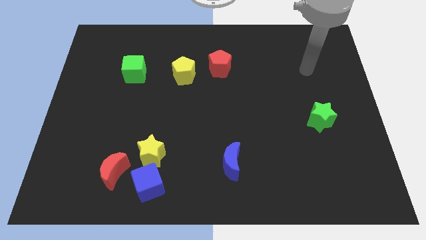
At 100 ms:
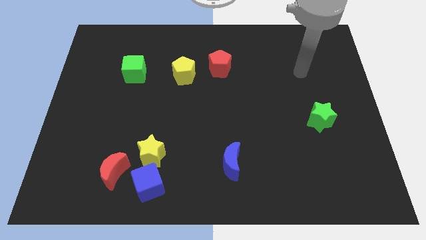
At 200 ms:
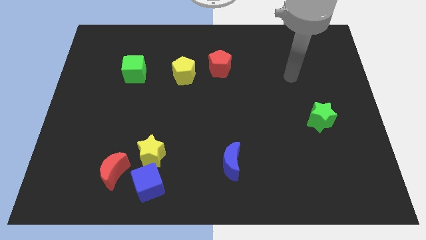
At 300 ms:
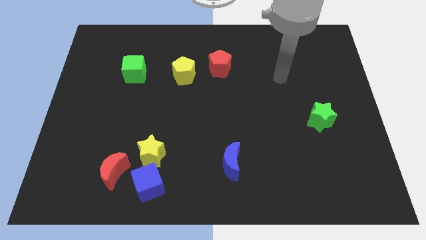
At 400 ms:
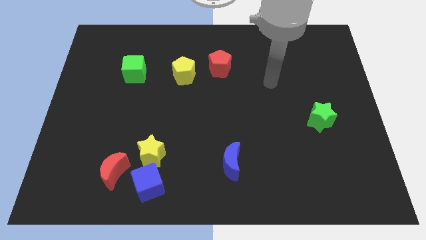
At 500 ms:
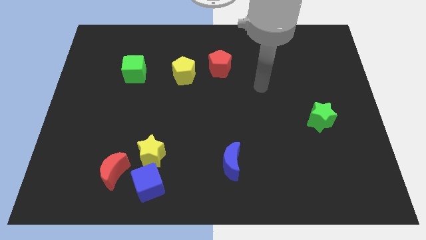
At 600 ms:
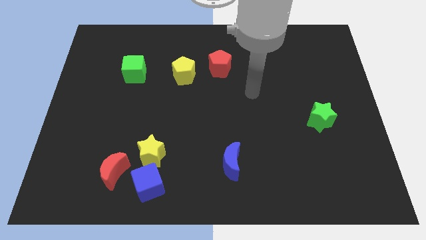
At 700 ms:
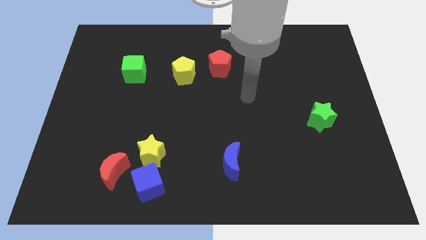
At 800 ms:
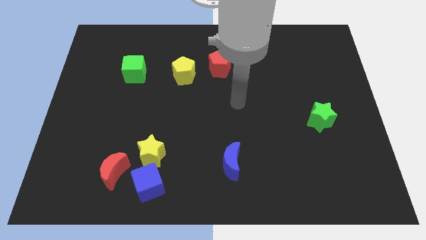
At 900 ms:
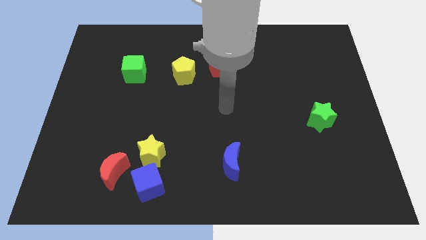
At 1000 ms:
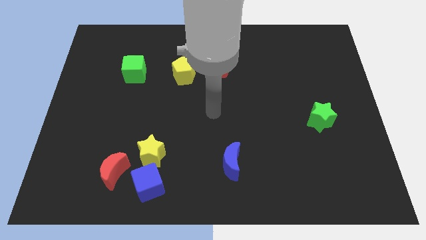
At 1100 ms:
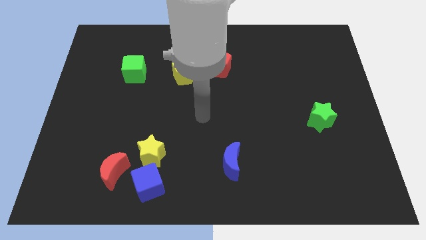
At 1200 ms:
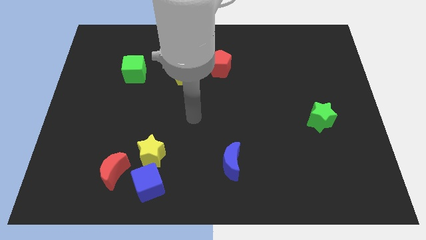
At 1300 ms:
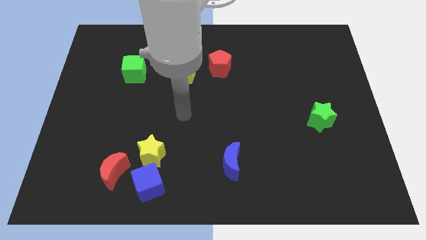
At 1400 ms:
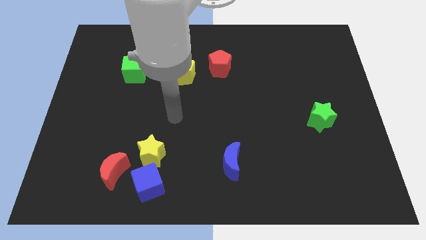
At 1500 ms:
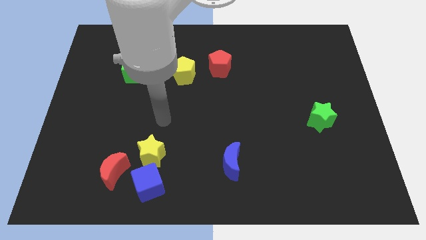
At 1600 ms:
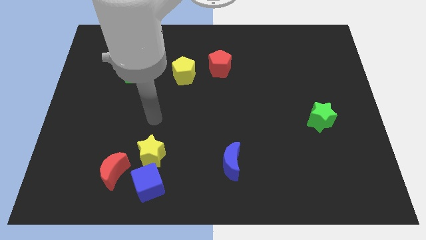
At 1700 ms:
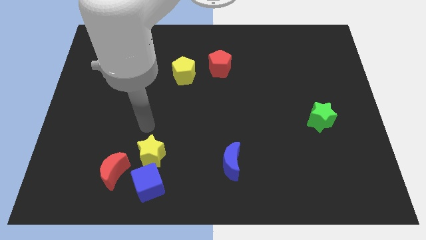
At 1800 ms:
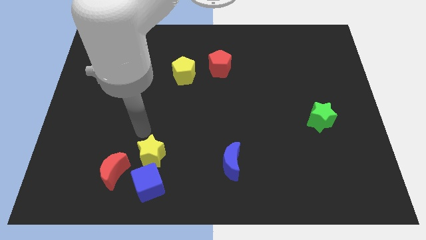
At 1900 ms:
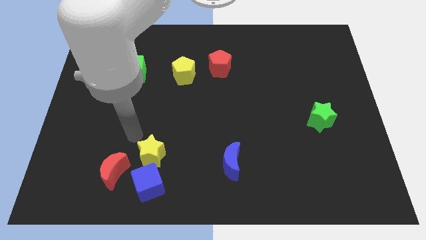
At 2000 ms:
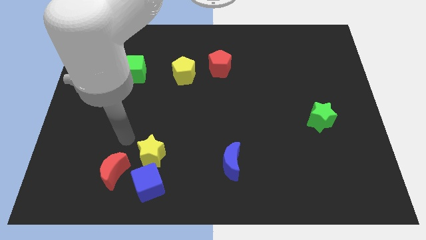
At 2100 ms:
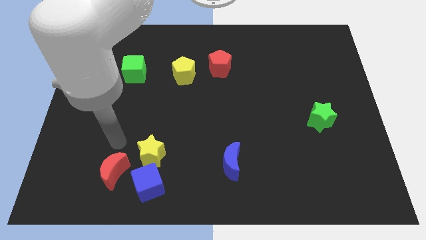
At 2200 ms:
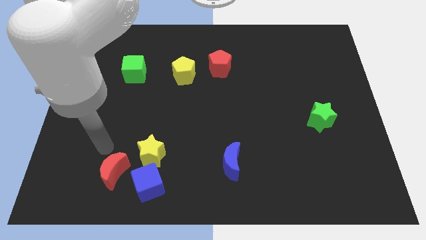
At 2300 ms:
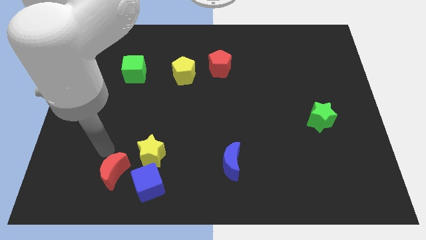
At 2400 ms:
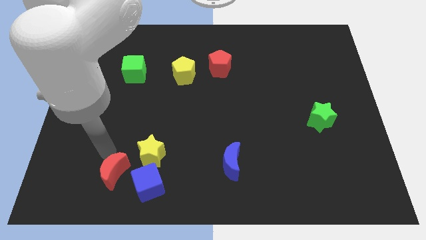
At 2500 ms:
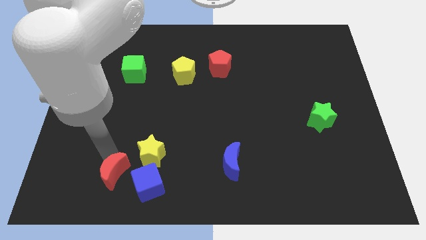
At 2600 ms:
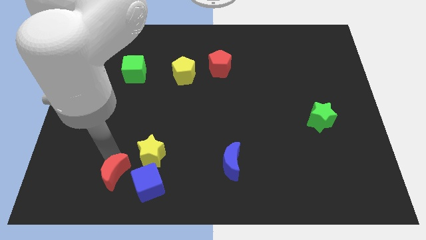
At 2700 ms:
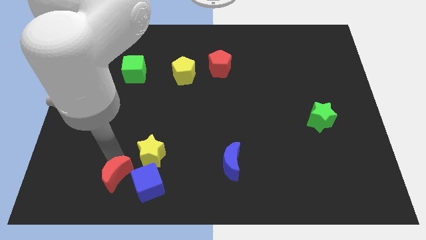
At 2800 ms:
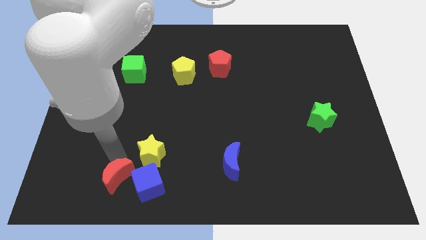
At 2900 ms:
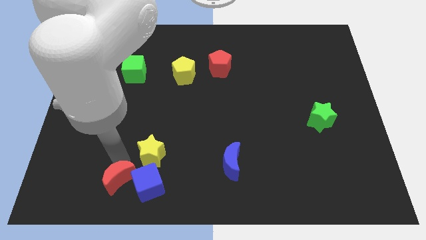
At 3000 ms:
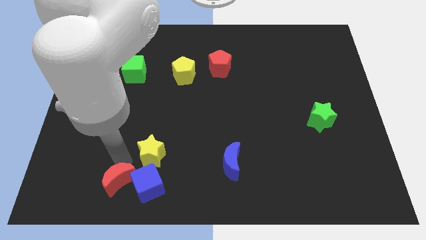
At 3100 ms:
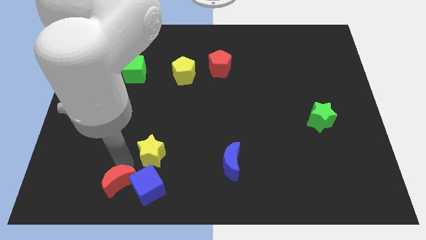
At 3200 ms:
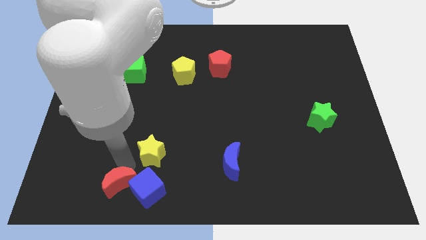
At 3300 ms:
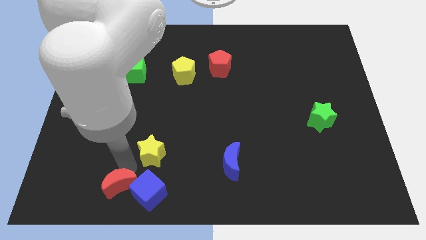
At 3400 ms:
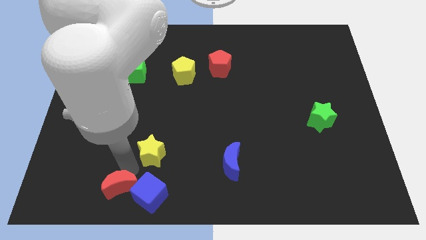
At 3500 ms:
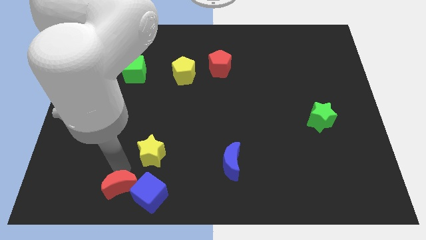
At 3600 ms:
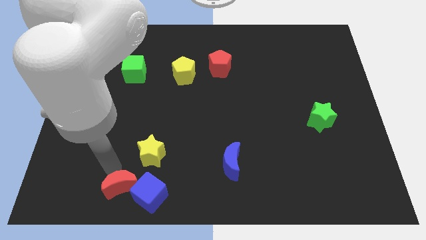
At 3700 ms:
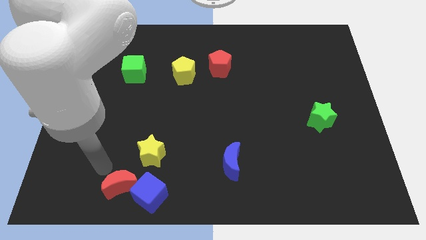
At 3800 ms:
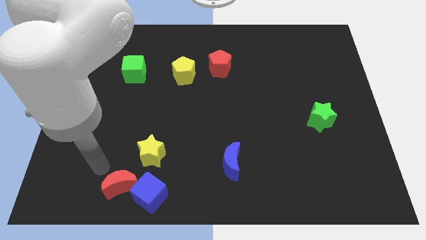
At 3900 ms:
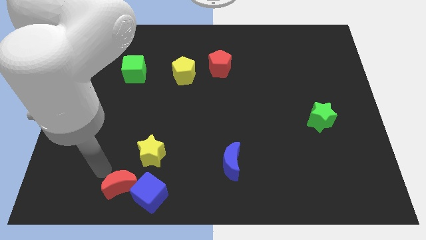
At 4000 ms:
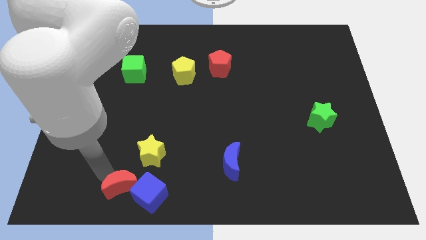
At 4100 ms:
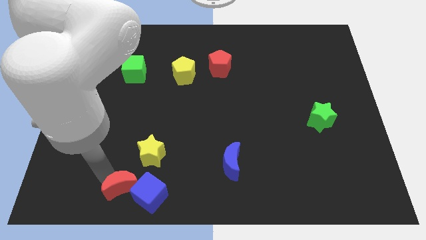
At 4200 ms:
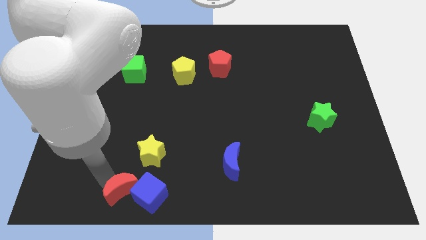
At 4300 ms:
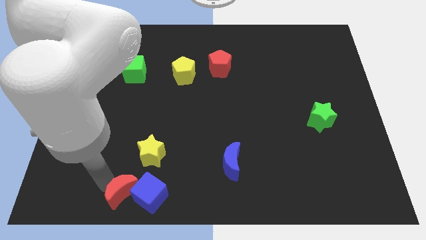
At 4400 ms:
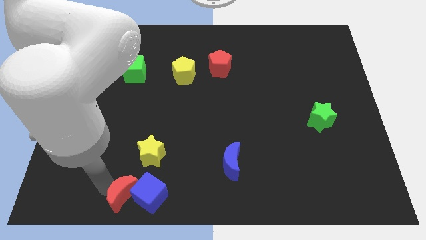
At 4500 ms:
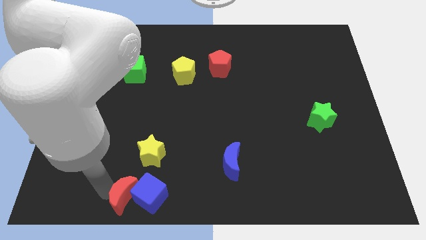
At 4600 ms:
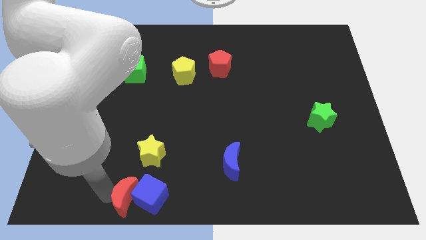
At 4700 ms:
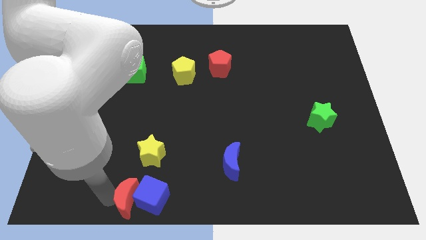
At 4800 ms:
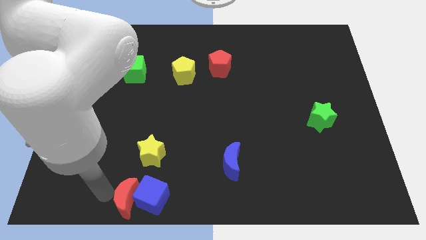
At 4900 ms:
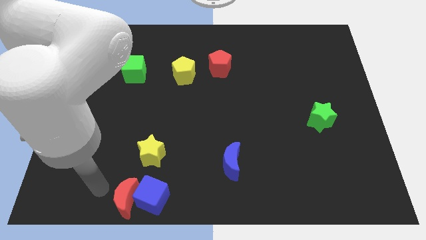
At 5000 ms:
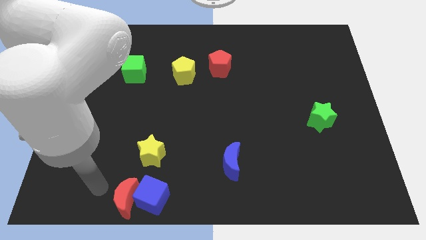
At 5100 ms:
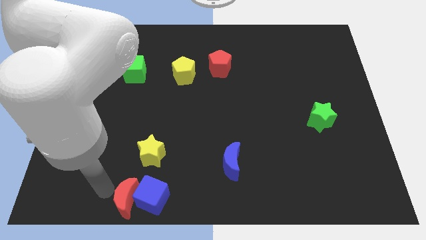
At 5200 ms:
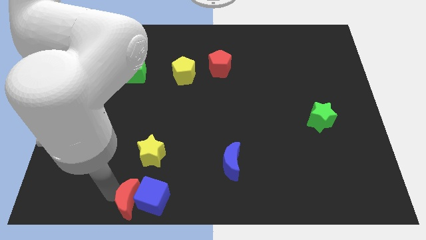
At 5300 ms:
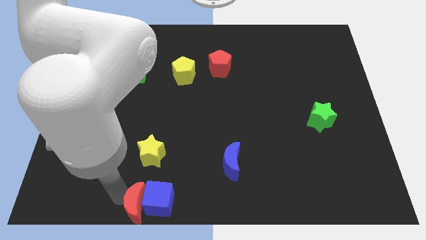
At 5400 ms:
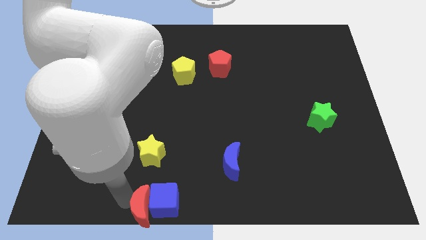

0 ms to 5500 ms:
slide the red moon to the bottom
